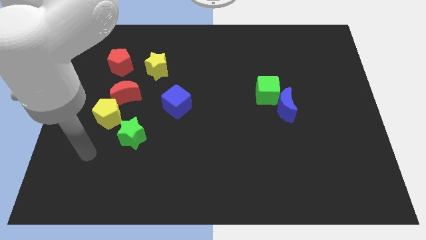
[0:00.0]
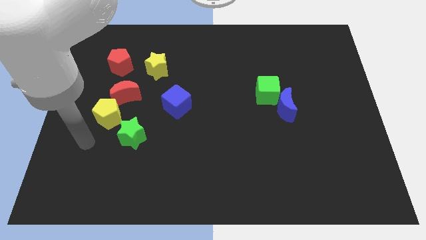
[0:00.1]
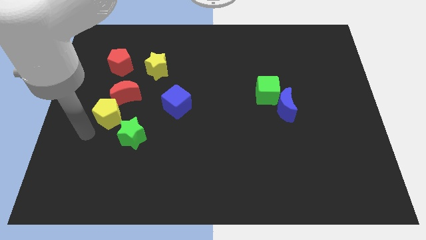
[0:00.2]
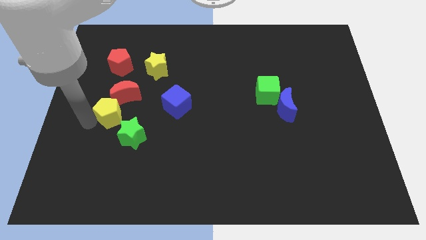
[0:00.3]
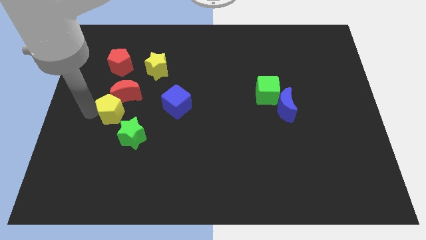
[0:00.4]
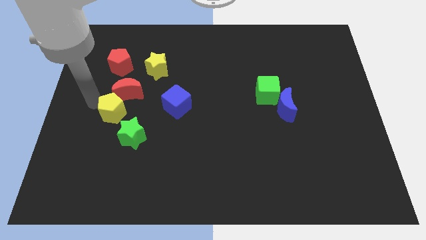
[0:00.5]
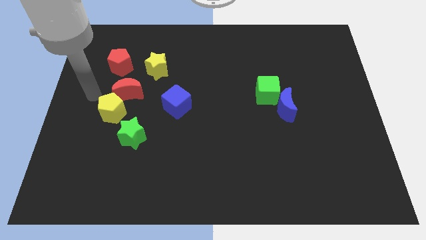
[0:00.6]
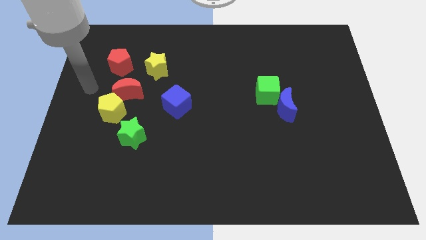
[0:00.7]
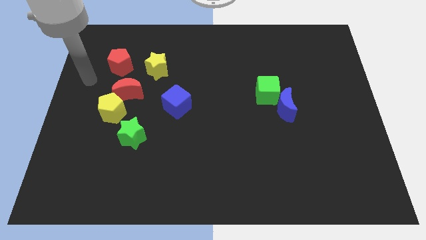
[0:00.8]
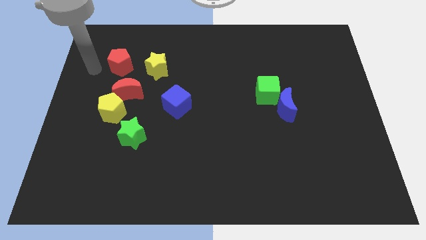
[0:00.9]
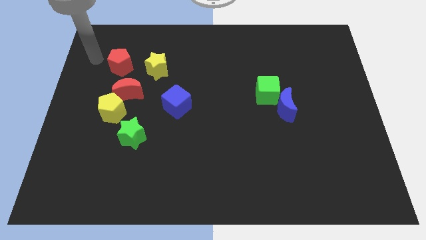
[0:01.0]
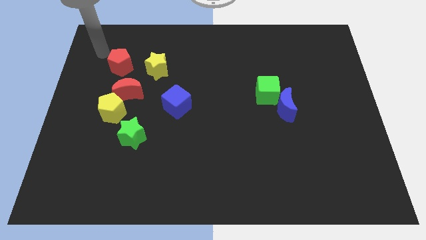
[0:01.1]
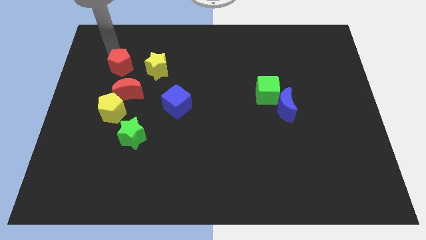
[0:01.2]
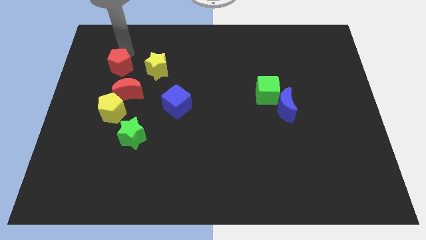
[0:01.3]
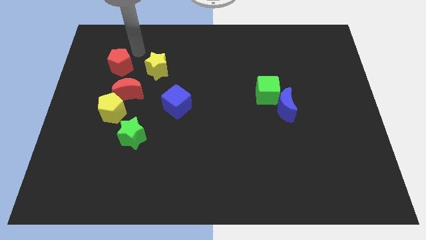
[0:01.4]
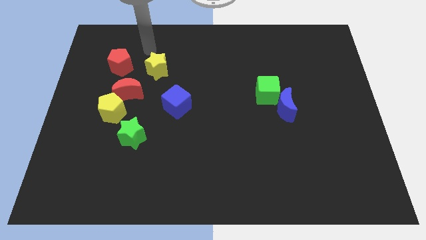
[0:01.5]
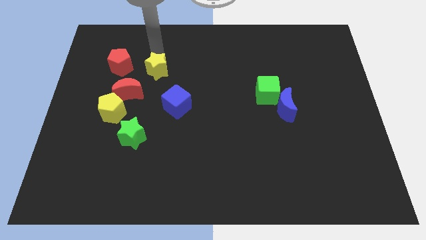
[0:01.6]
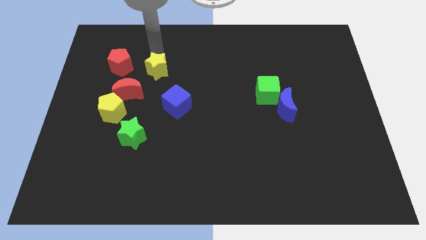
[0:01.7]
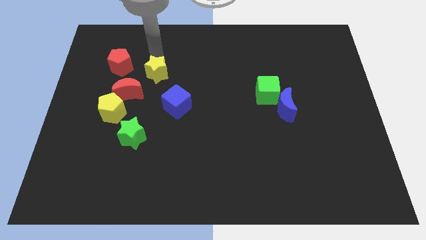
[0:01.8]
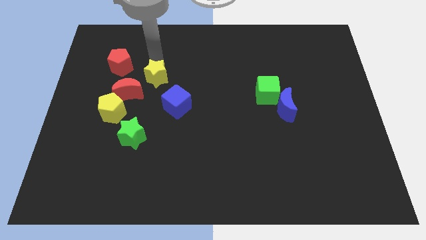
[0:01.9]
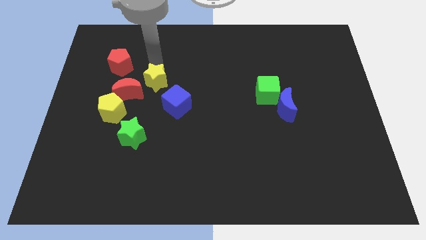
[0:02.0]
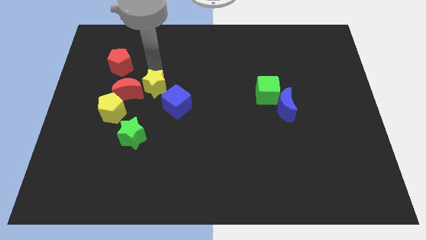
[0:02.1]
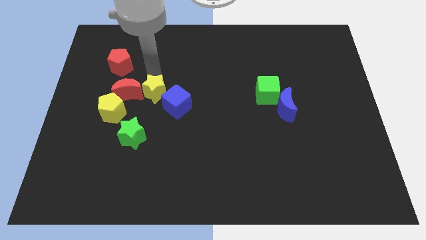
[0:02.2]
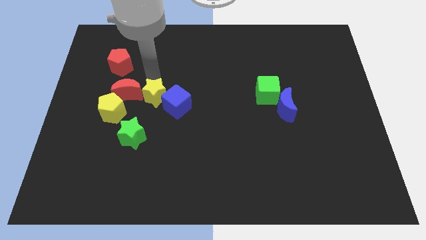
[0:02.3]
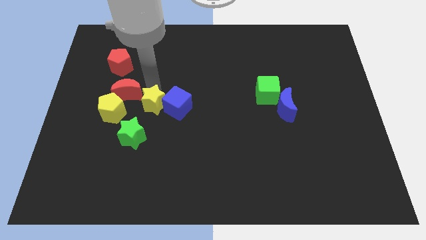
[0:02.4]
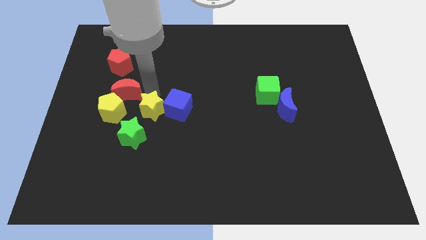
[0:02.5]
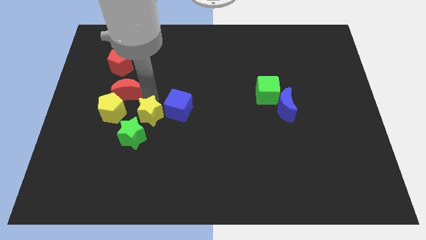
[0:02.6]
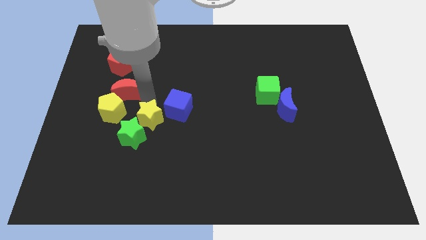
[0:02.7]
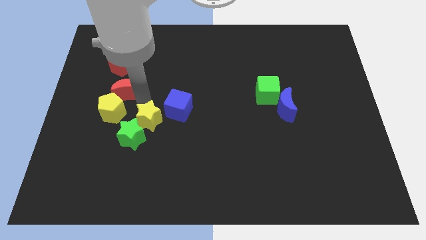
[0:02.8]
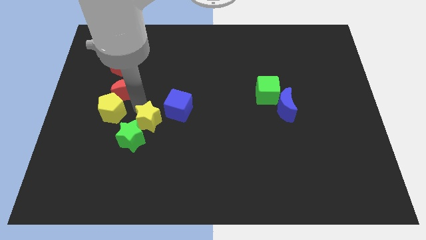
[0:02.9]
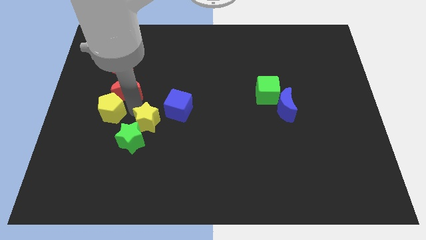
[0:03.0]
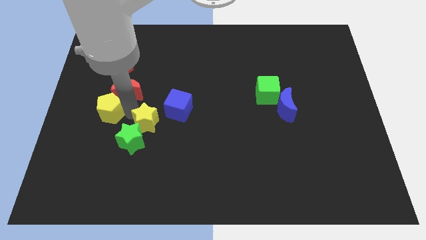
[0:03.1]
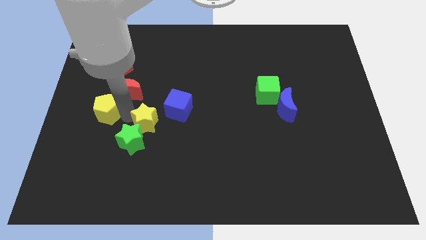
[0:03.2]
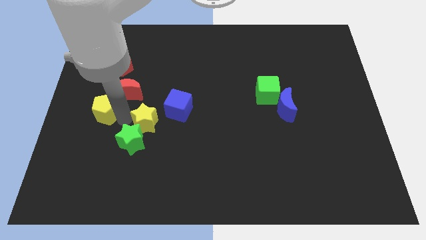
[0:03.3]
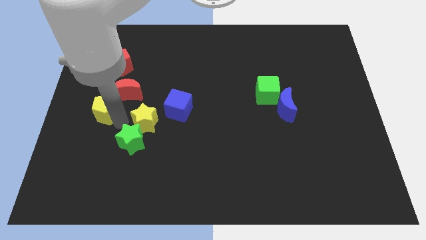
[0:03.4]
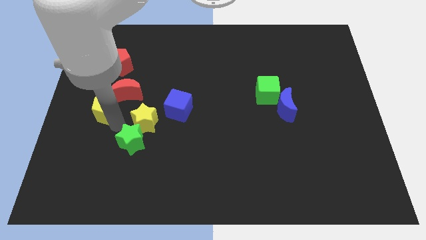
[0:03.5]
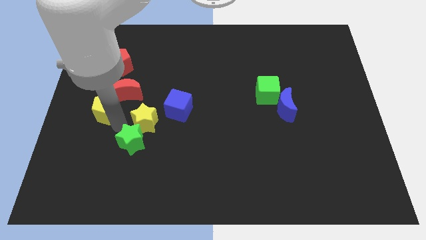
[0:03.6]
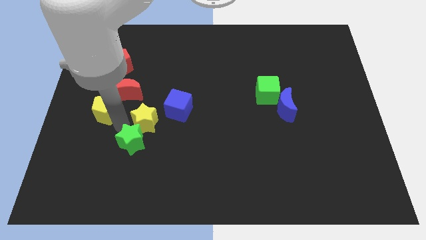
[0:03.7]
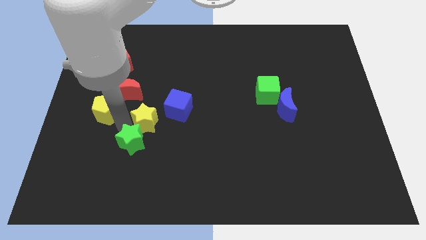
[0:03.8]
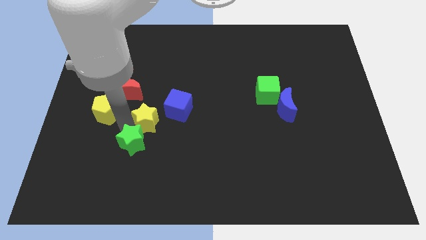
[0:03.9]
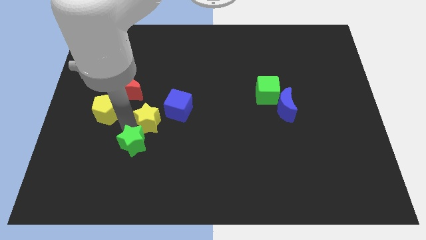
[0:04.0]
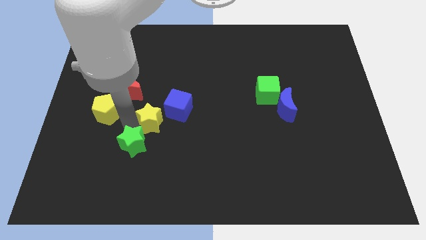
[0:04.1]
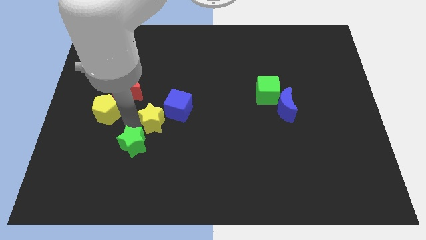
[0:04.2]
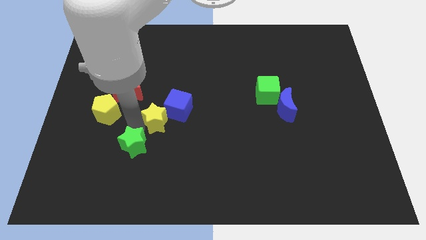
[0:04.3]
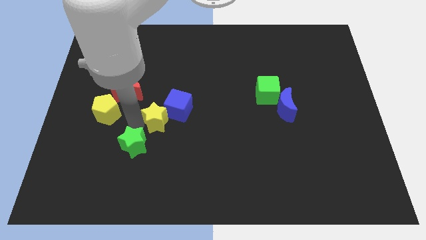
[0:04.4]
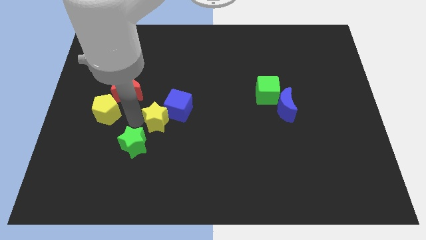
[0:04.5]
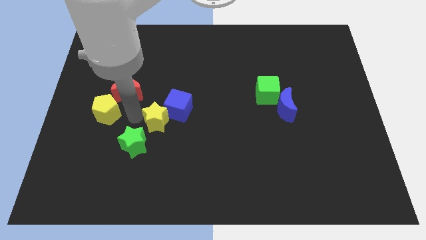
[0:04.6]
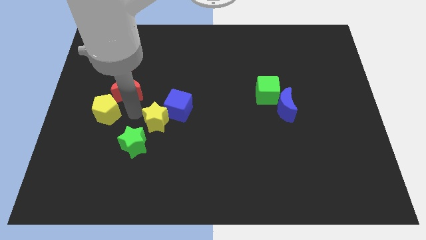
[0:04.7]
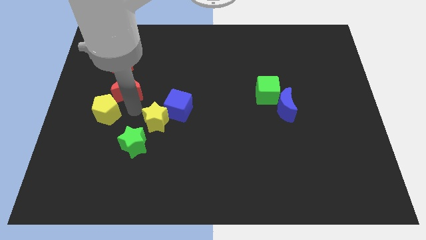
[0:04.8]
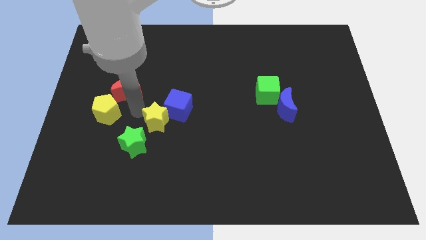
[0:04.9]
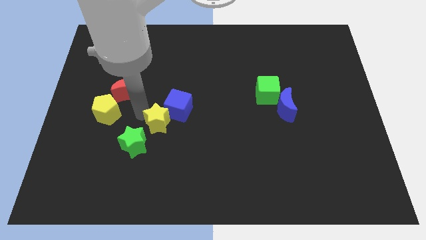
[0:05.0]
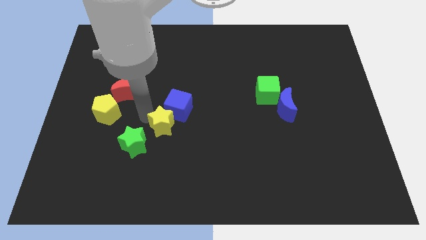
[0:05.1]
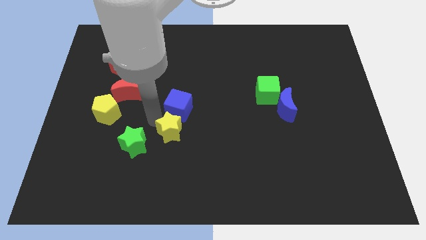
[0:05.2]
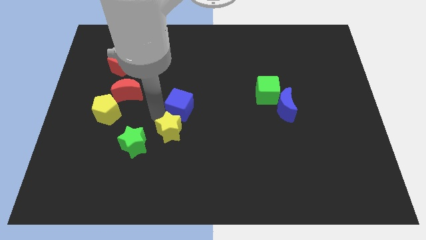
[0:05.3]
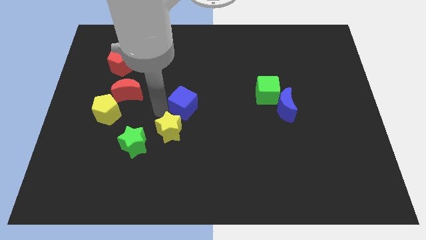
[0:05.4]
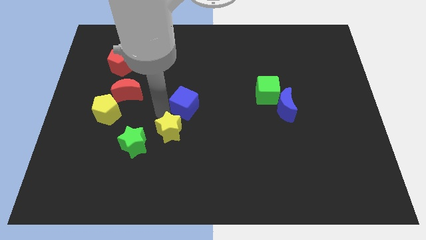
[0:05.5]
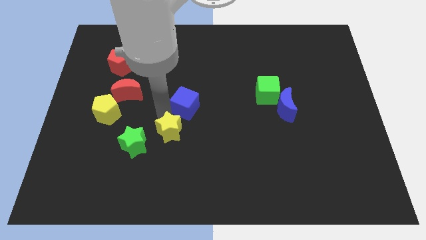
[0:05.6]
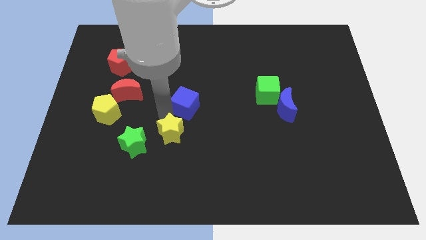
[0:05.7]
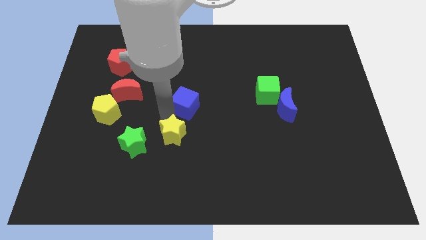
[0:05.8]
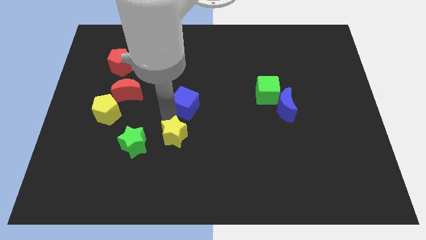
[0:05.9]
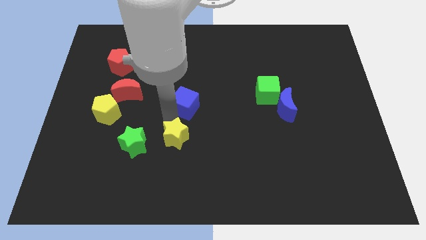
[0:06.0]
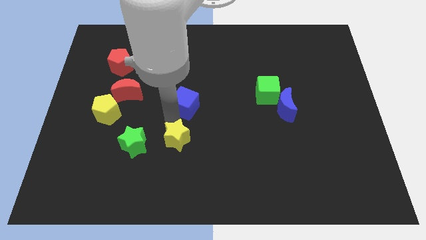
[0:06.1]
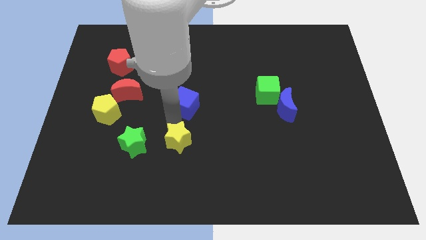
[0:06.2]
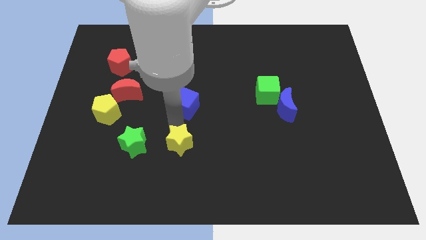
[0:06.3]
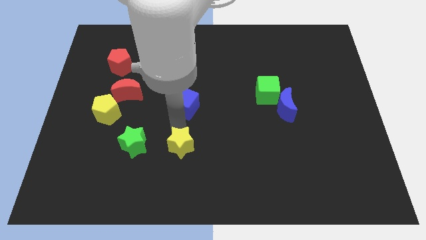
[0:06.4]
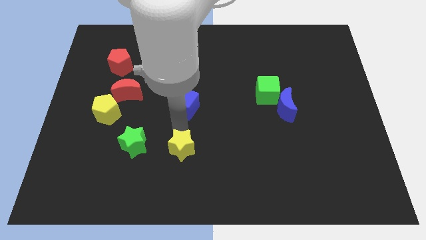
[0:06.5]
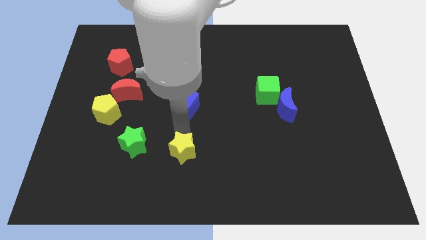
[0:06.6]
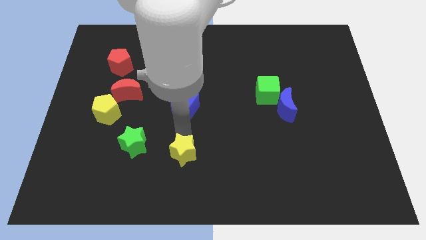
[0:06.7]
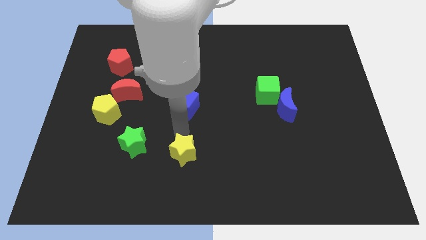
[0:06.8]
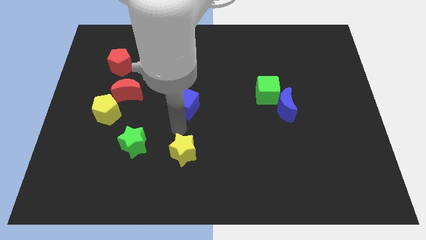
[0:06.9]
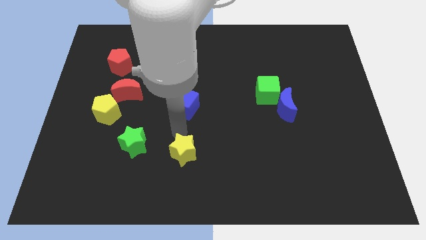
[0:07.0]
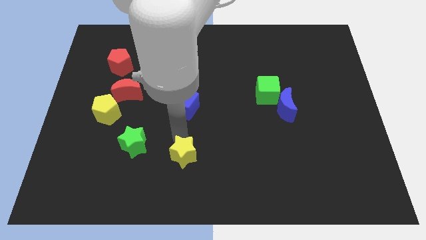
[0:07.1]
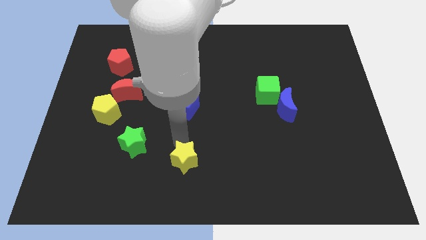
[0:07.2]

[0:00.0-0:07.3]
put the yellow star to the bottom
